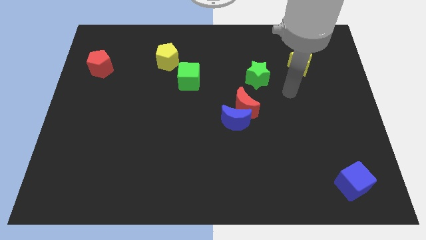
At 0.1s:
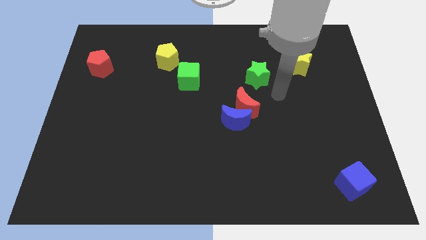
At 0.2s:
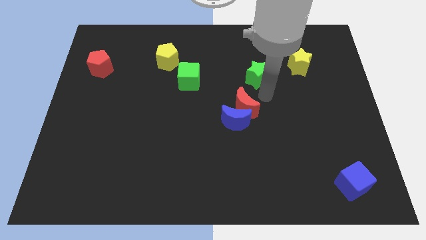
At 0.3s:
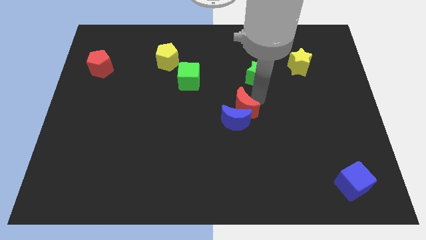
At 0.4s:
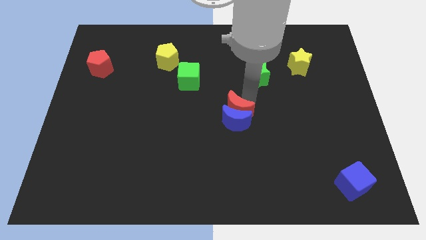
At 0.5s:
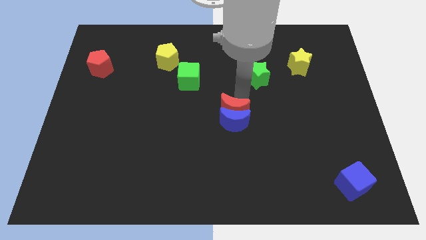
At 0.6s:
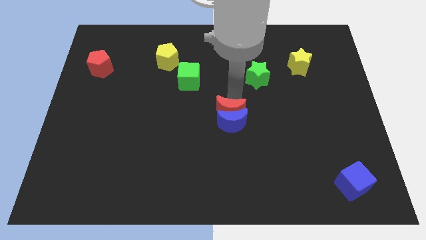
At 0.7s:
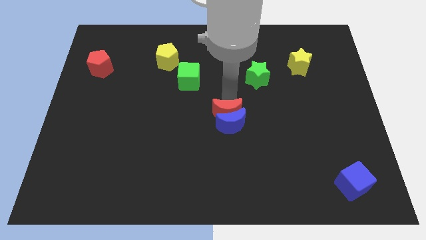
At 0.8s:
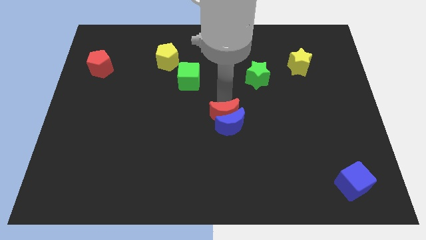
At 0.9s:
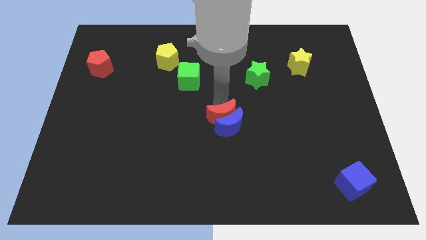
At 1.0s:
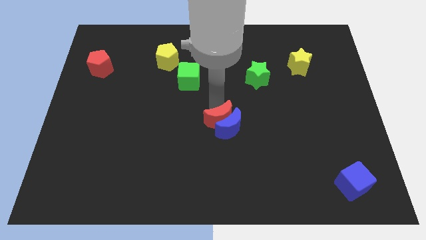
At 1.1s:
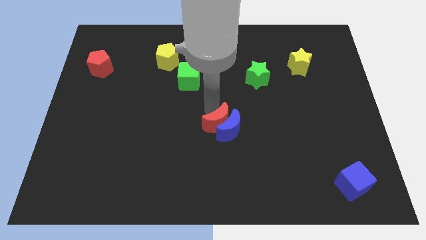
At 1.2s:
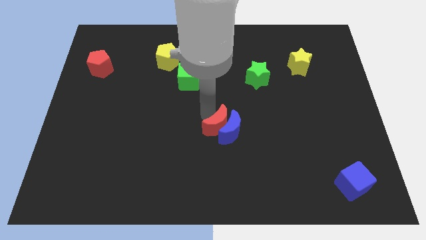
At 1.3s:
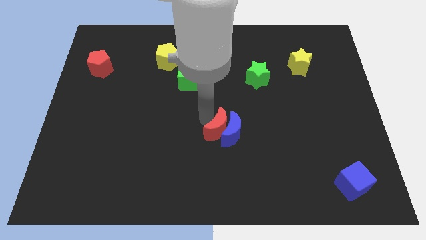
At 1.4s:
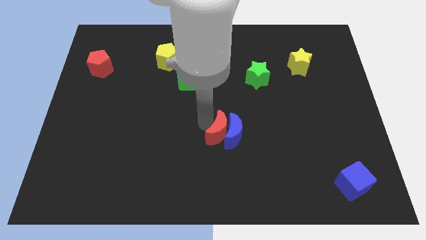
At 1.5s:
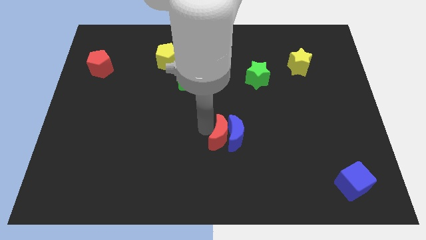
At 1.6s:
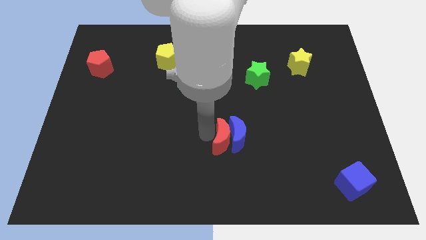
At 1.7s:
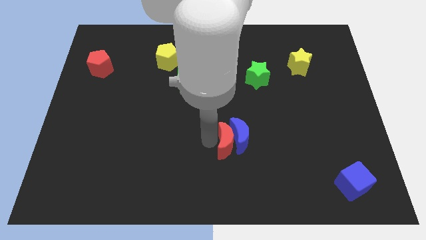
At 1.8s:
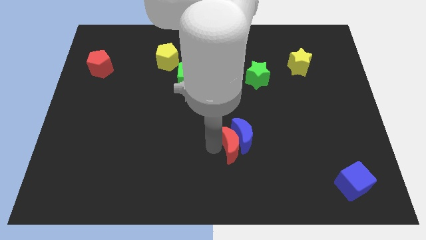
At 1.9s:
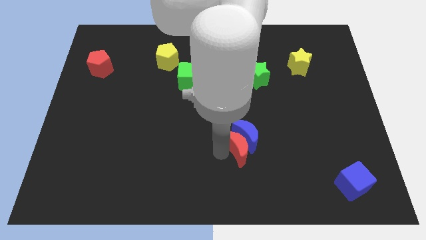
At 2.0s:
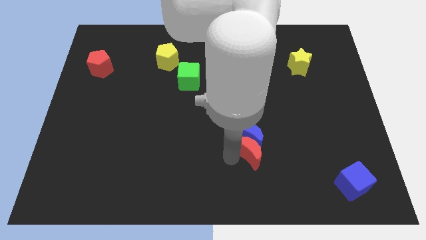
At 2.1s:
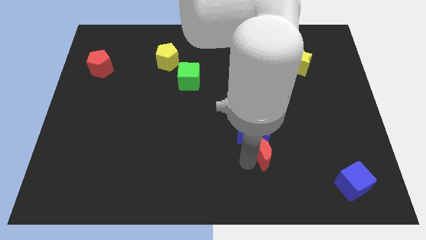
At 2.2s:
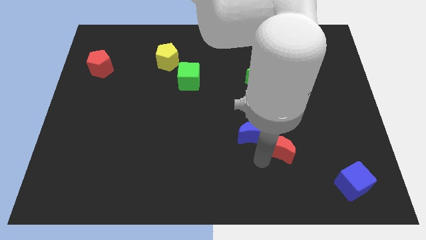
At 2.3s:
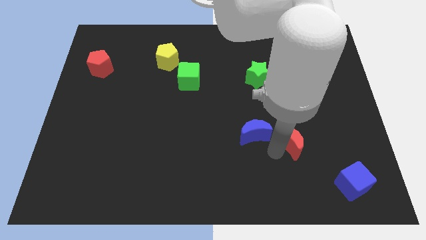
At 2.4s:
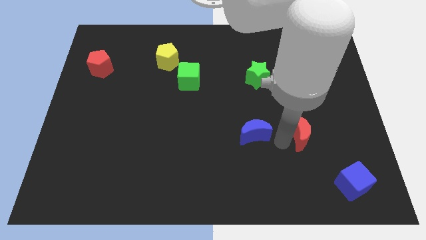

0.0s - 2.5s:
move the blue moon away from the red moon

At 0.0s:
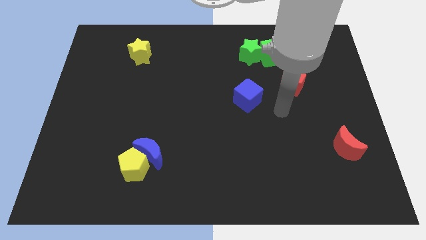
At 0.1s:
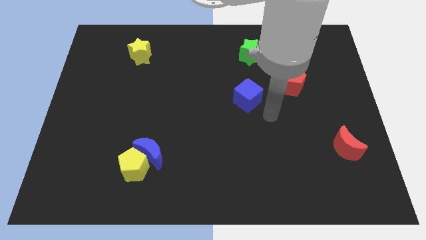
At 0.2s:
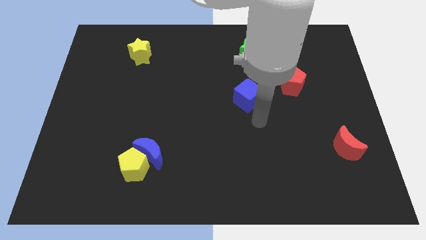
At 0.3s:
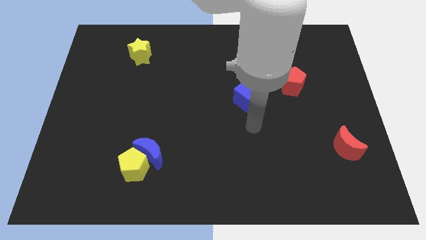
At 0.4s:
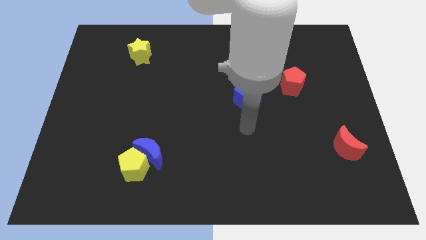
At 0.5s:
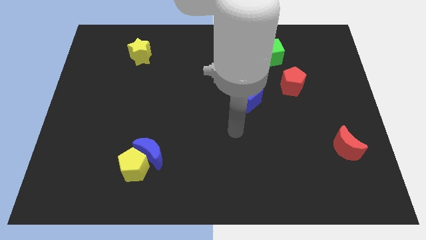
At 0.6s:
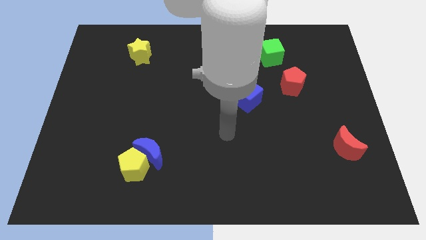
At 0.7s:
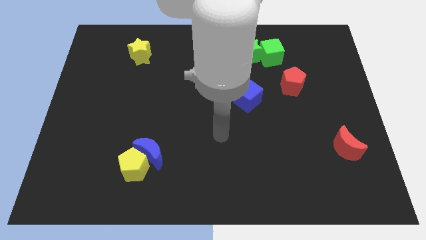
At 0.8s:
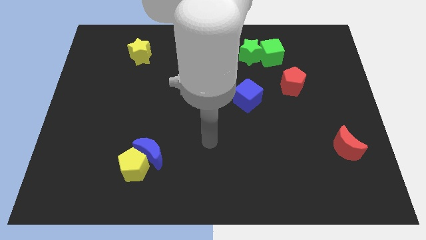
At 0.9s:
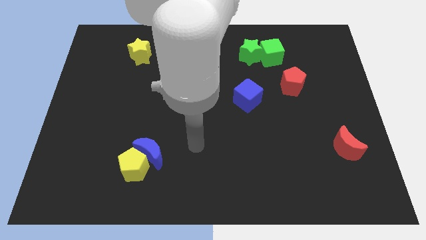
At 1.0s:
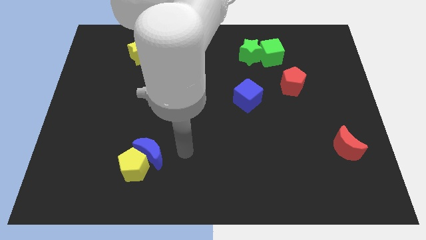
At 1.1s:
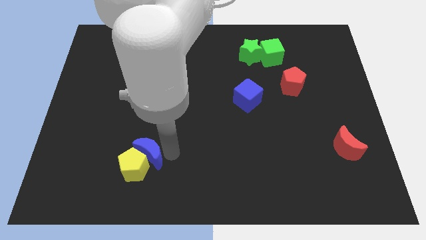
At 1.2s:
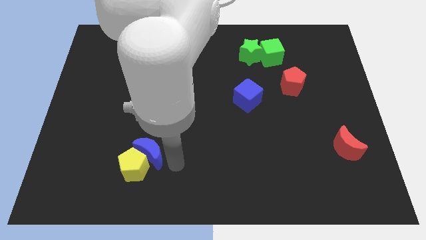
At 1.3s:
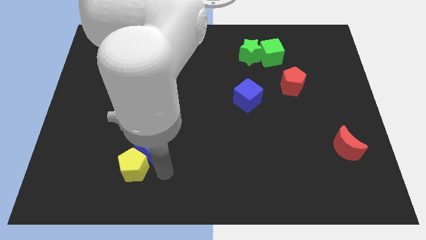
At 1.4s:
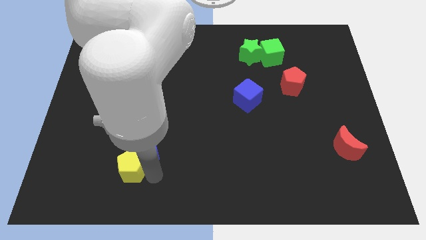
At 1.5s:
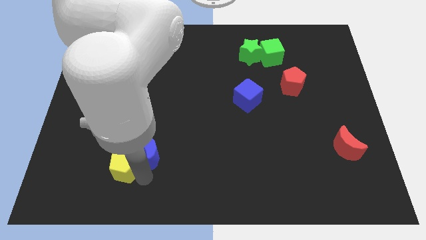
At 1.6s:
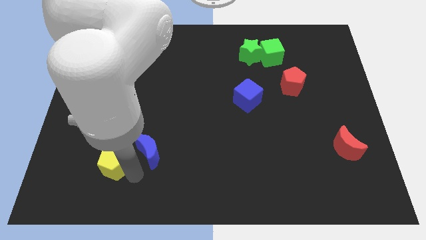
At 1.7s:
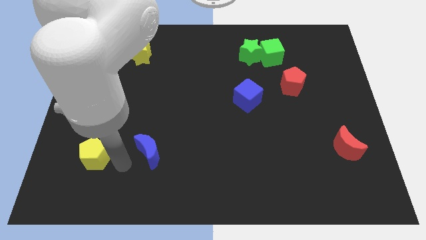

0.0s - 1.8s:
separate the blue moon from the yellow pentagon

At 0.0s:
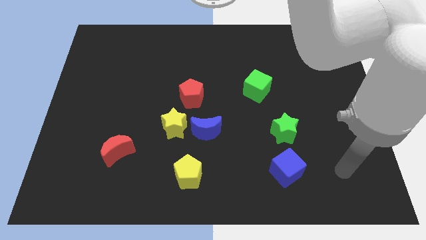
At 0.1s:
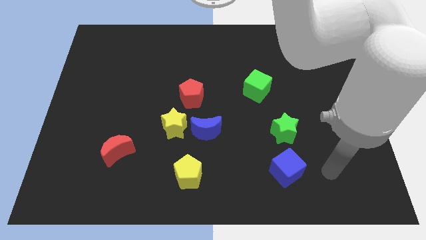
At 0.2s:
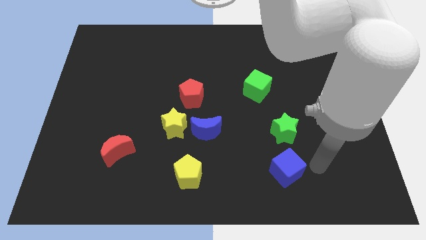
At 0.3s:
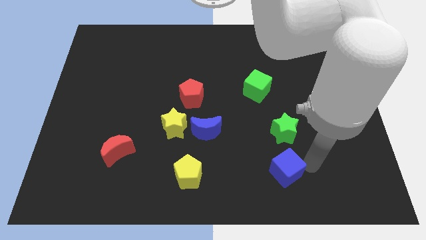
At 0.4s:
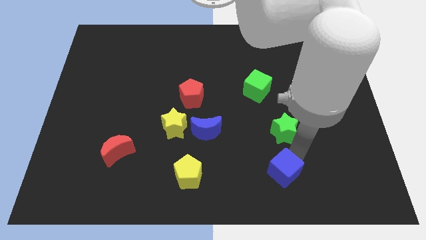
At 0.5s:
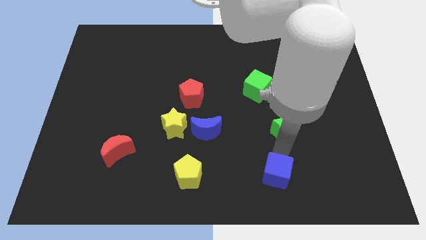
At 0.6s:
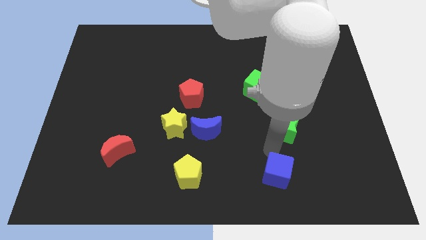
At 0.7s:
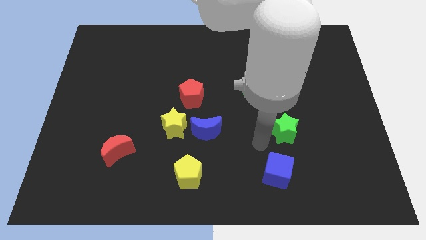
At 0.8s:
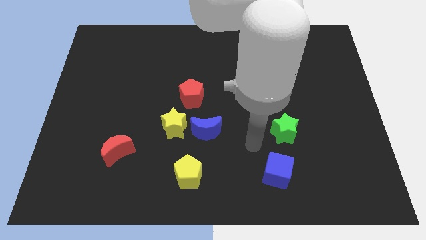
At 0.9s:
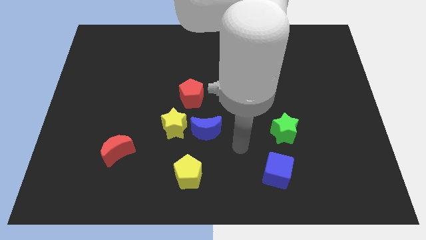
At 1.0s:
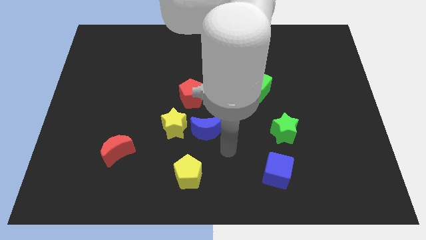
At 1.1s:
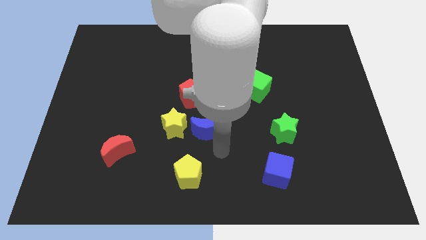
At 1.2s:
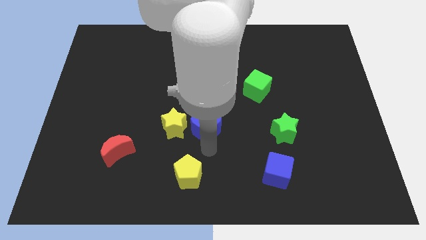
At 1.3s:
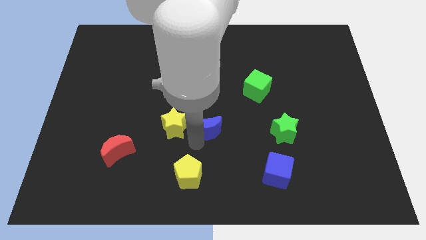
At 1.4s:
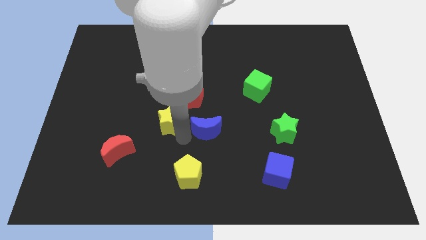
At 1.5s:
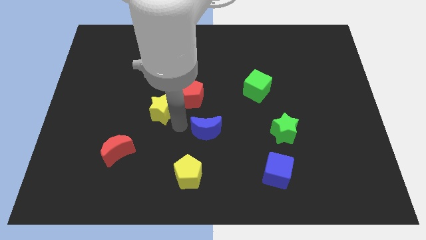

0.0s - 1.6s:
move the blue moon away from the yellow star

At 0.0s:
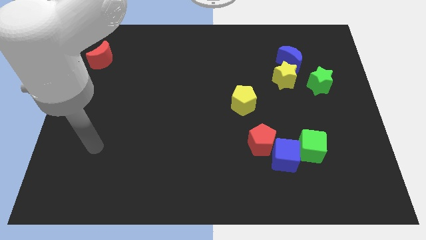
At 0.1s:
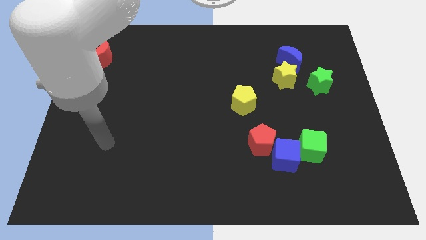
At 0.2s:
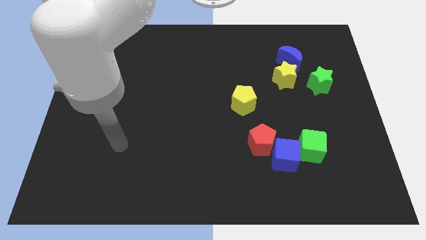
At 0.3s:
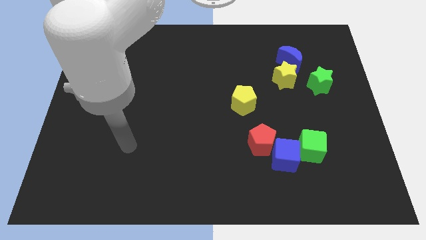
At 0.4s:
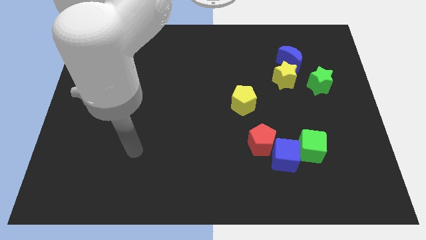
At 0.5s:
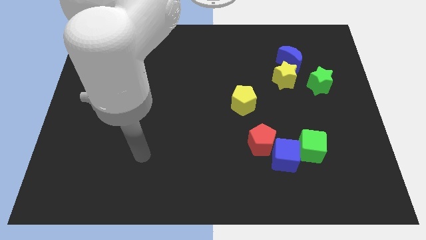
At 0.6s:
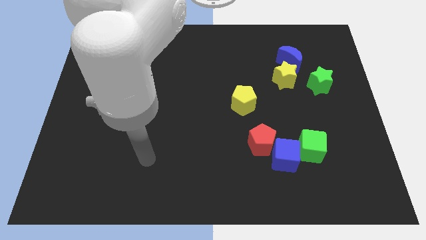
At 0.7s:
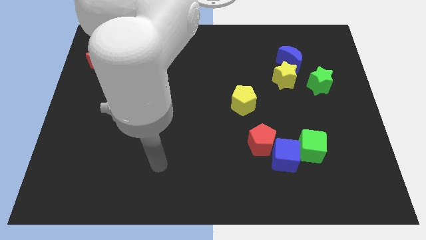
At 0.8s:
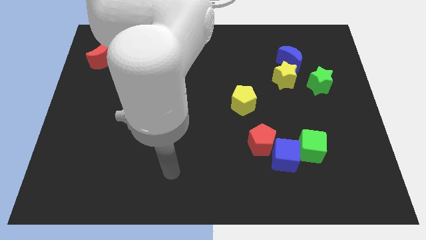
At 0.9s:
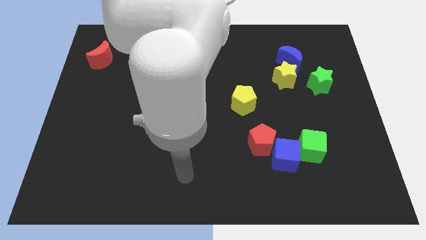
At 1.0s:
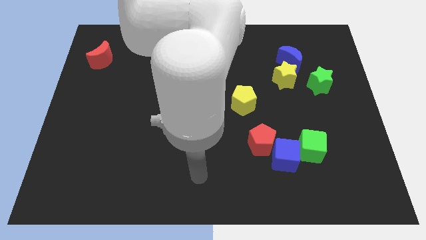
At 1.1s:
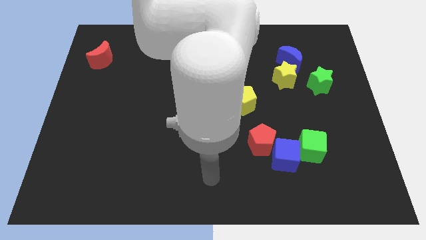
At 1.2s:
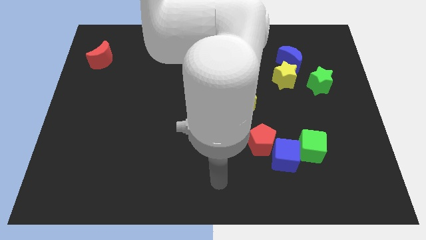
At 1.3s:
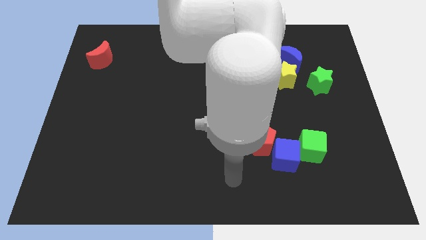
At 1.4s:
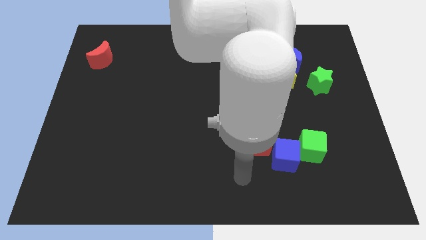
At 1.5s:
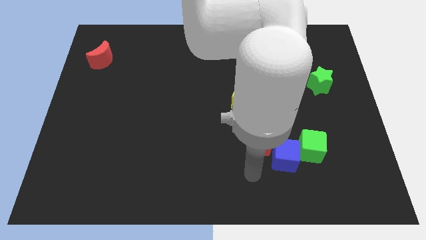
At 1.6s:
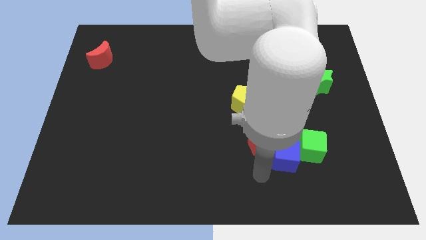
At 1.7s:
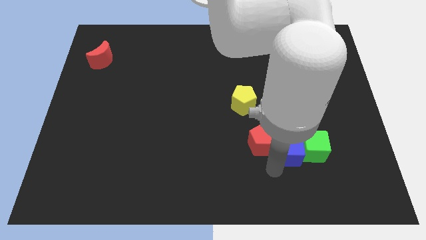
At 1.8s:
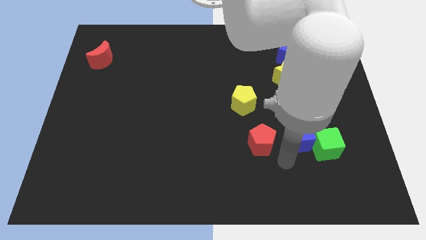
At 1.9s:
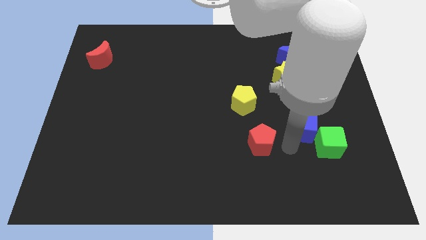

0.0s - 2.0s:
pull the red pentagon apart from the blue cube

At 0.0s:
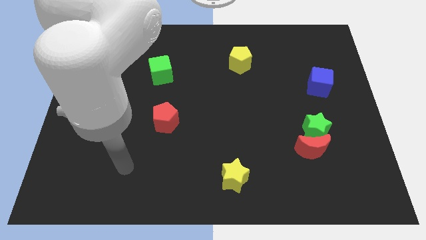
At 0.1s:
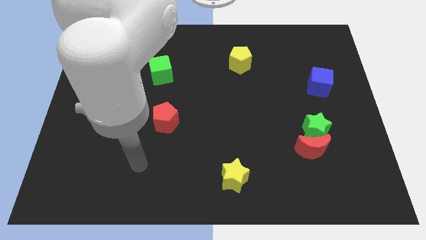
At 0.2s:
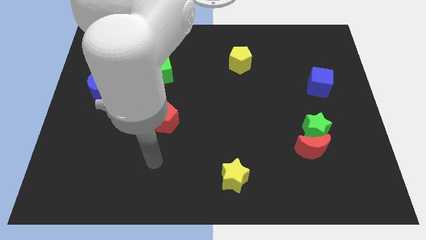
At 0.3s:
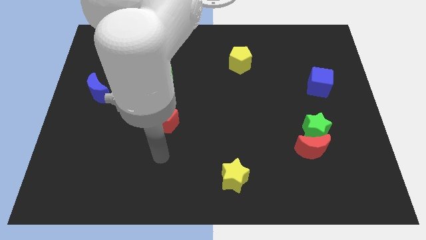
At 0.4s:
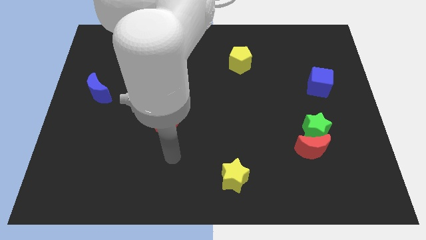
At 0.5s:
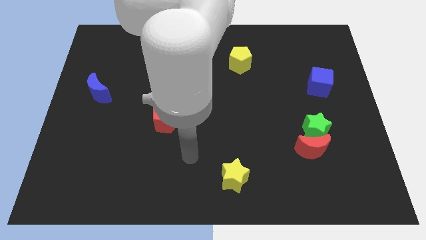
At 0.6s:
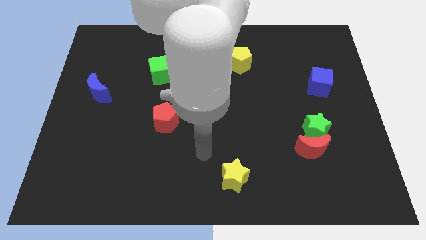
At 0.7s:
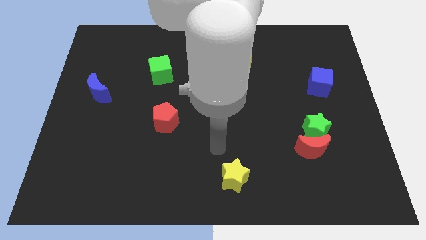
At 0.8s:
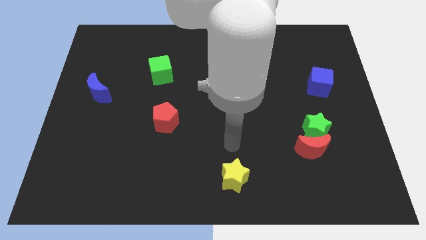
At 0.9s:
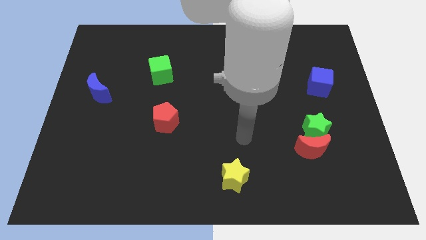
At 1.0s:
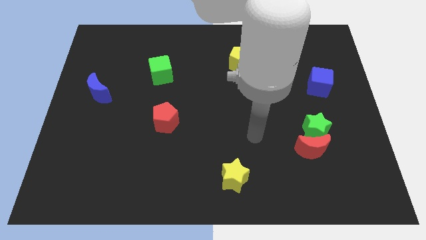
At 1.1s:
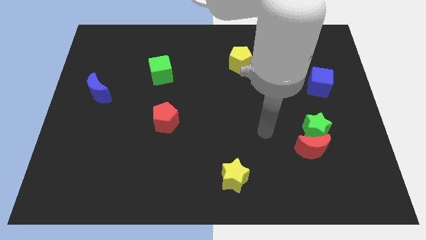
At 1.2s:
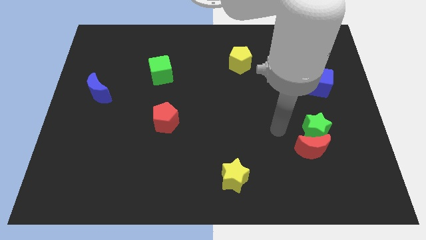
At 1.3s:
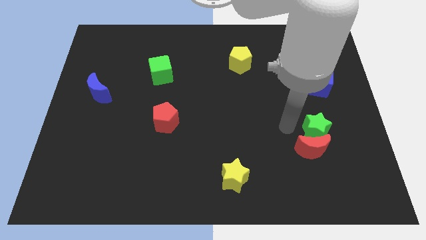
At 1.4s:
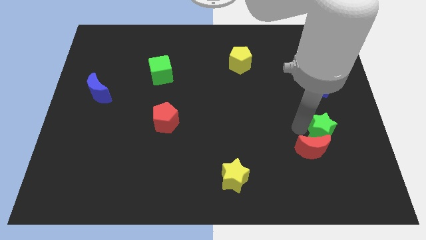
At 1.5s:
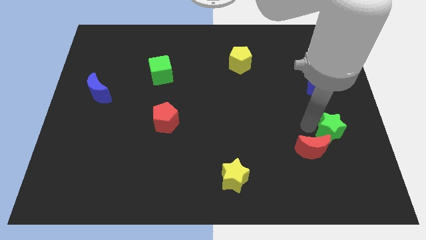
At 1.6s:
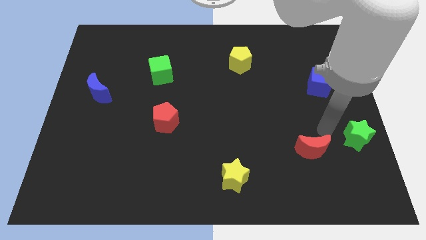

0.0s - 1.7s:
move the red moon away from the green star

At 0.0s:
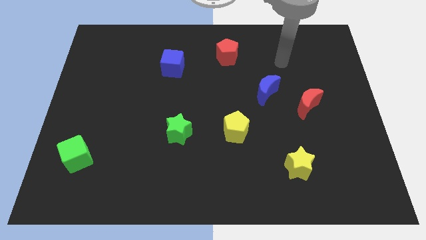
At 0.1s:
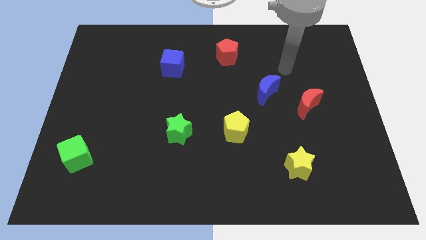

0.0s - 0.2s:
separate the red moon from the blue moon
